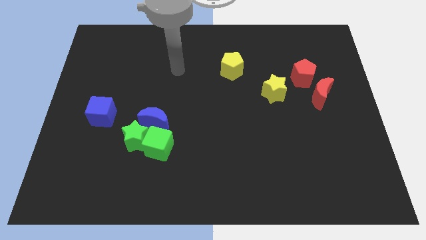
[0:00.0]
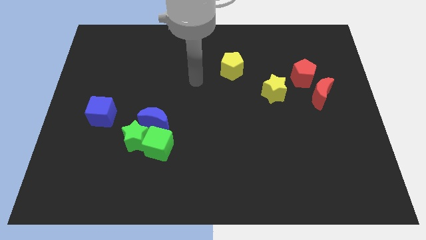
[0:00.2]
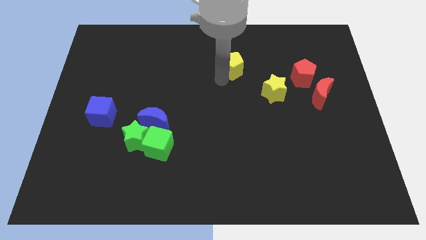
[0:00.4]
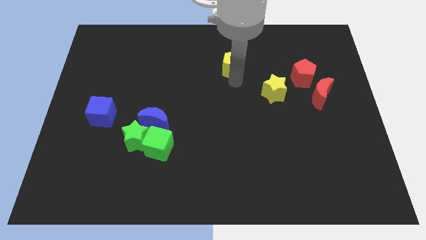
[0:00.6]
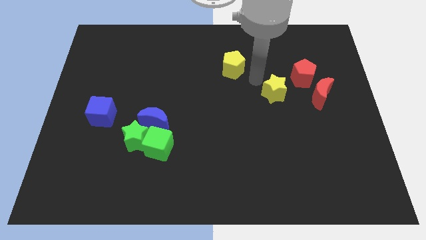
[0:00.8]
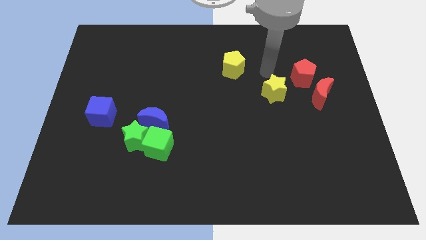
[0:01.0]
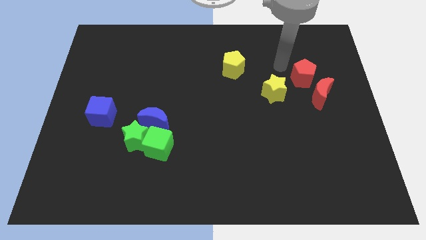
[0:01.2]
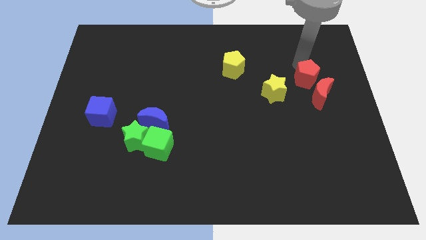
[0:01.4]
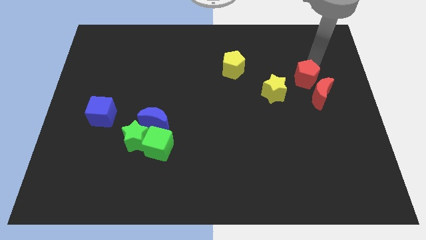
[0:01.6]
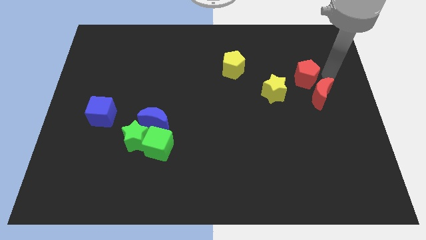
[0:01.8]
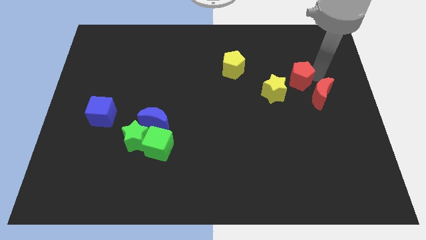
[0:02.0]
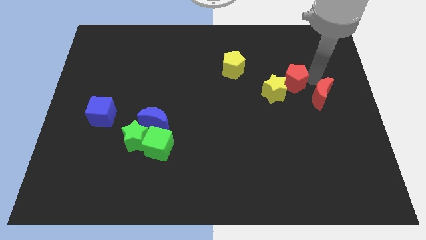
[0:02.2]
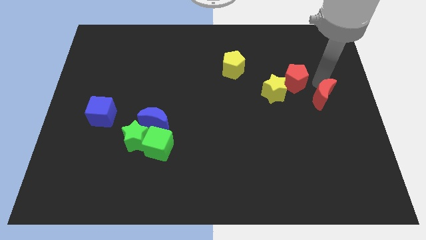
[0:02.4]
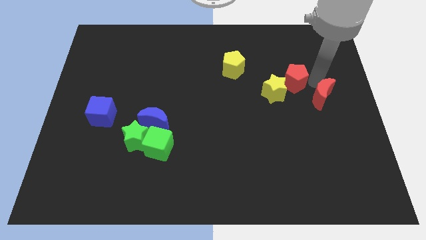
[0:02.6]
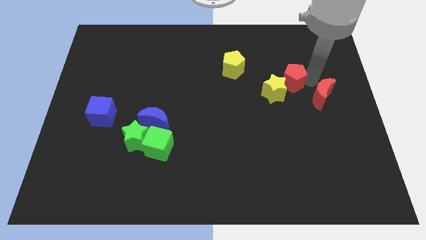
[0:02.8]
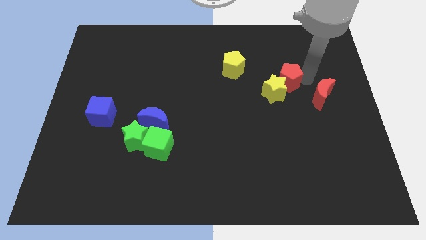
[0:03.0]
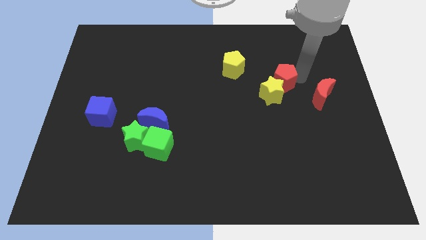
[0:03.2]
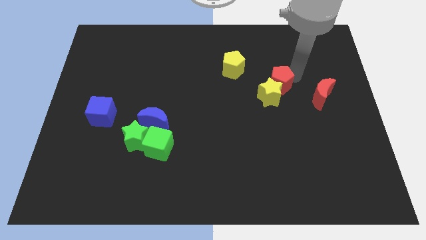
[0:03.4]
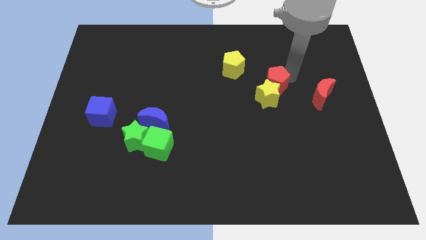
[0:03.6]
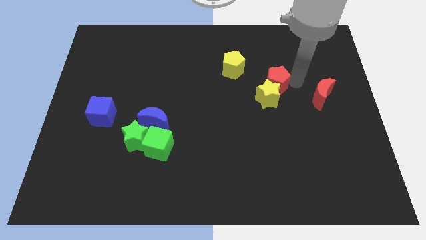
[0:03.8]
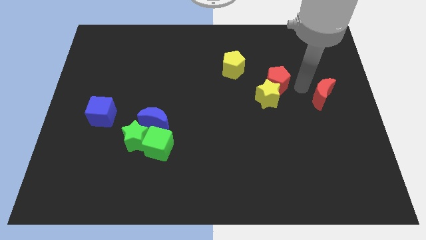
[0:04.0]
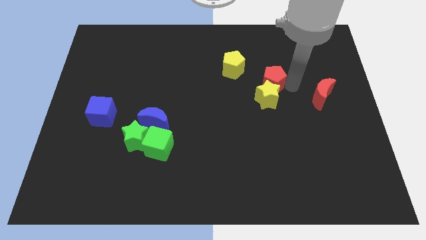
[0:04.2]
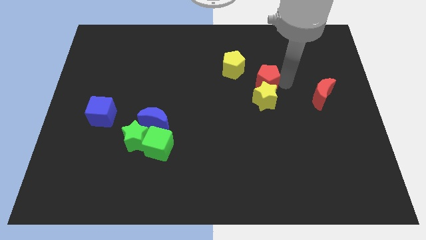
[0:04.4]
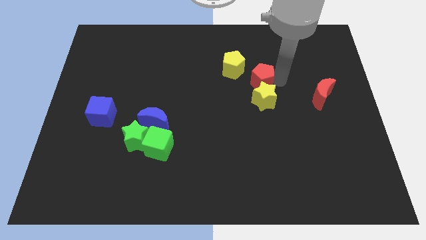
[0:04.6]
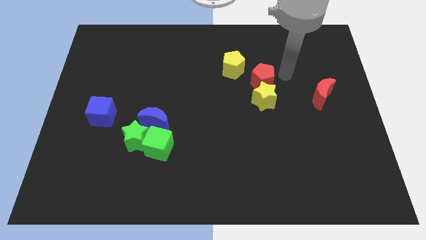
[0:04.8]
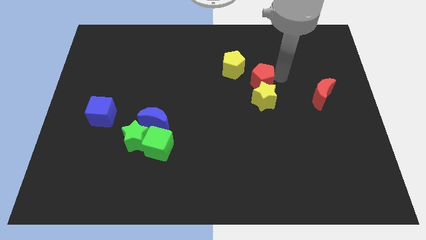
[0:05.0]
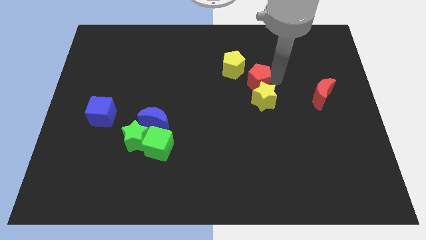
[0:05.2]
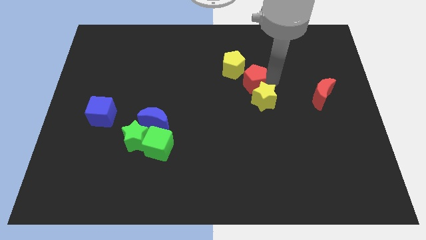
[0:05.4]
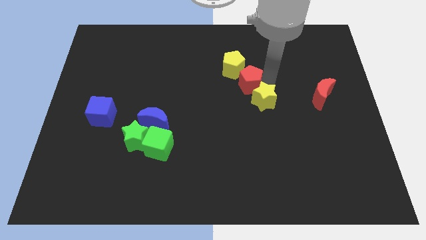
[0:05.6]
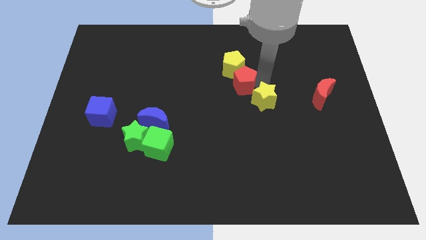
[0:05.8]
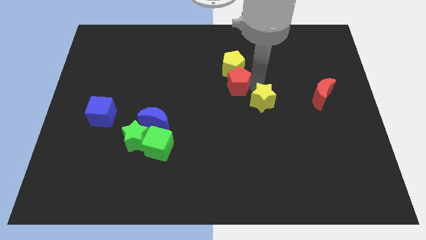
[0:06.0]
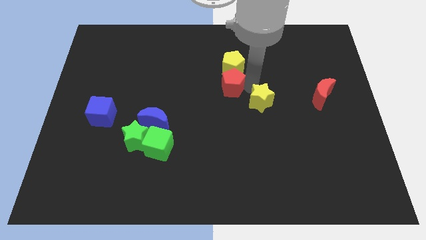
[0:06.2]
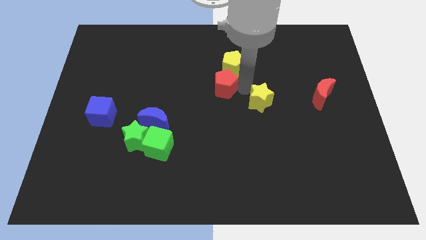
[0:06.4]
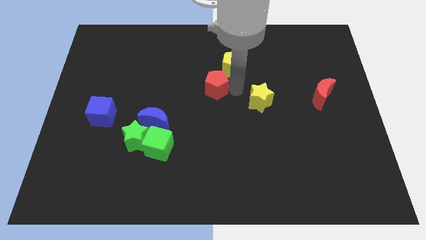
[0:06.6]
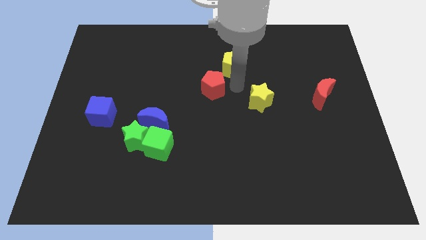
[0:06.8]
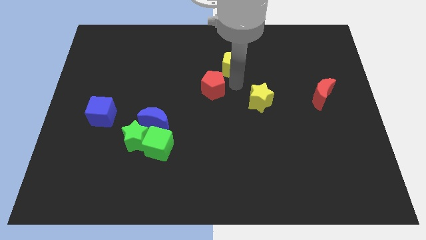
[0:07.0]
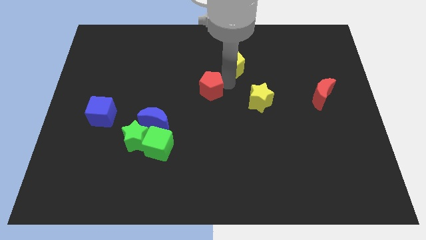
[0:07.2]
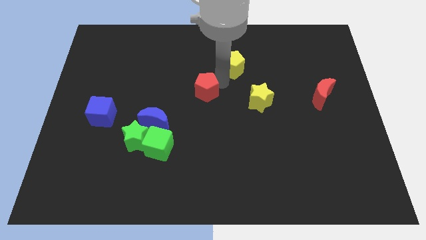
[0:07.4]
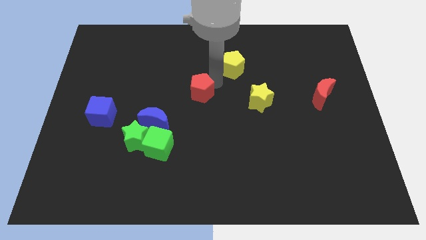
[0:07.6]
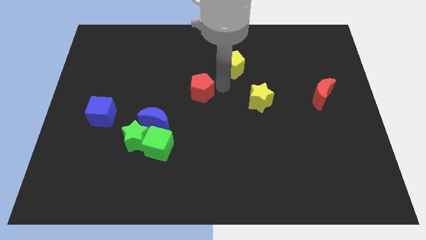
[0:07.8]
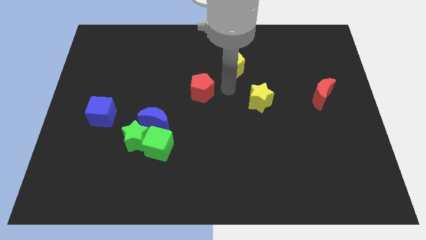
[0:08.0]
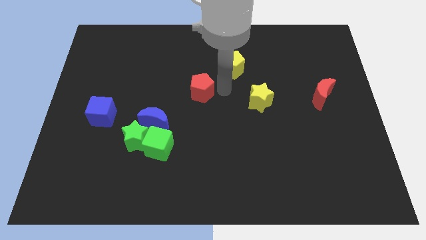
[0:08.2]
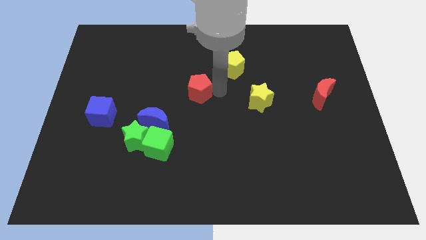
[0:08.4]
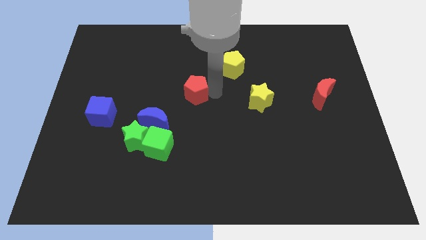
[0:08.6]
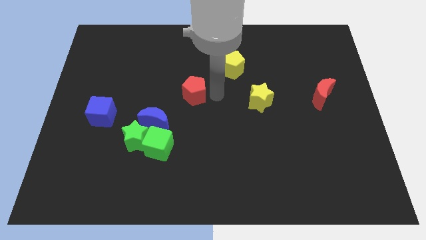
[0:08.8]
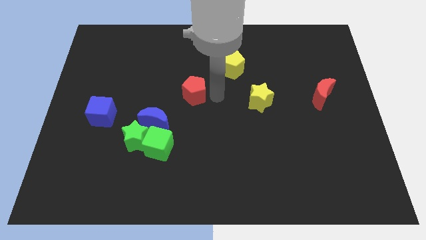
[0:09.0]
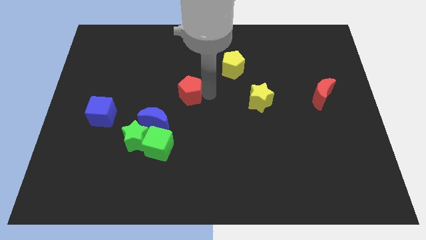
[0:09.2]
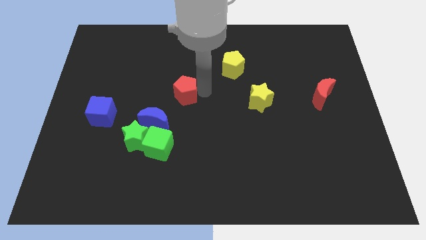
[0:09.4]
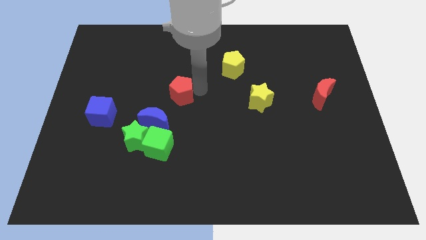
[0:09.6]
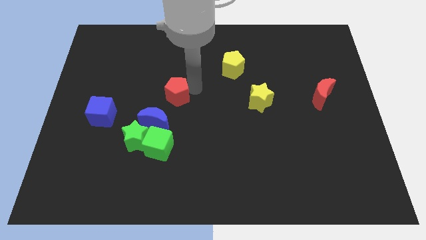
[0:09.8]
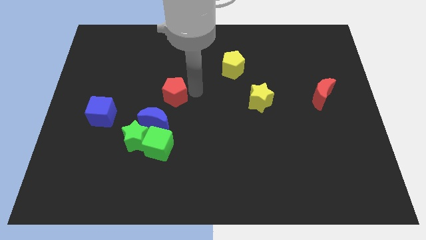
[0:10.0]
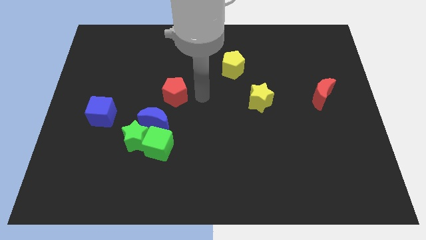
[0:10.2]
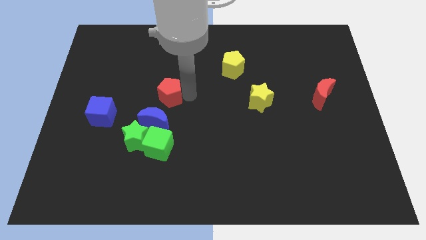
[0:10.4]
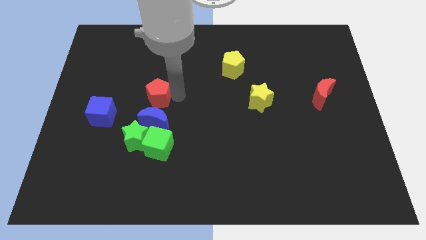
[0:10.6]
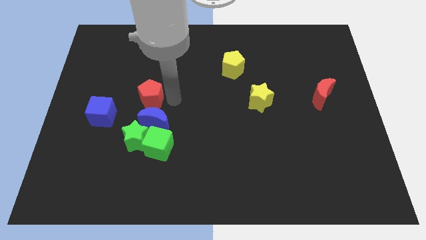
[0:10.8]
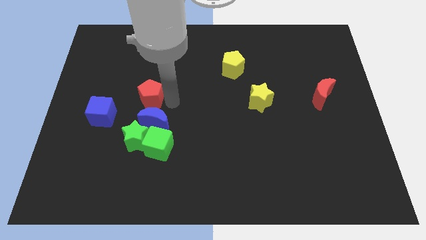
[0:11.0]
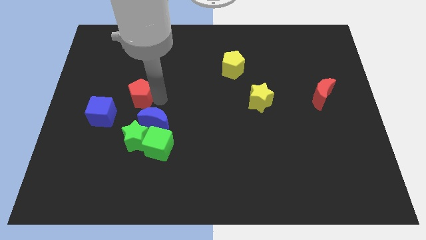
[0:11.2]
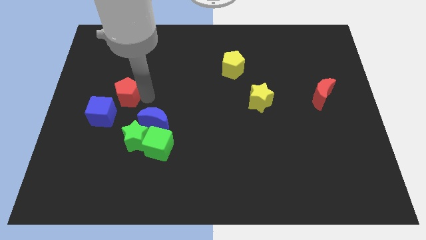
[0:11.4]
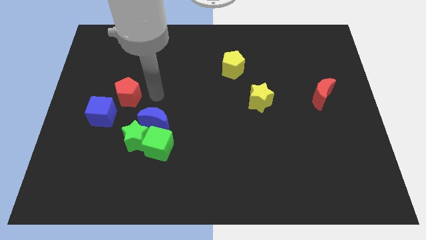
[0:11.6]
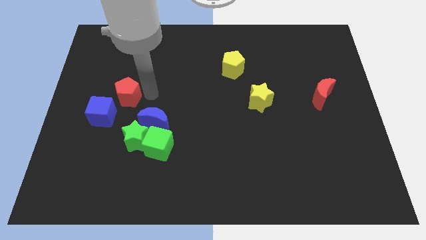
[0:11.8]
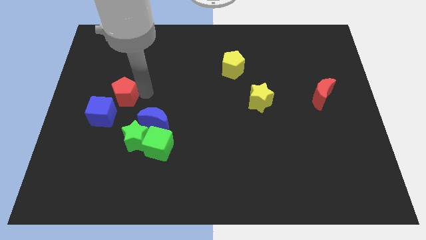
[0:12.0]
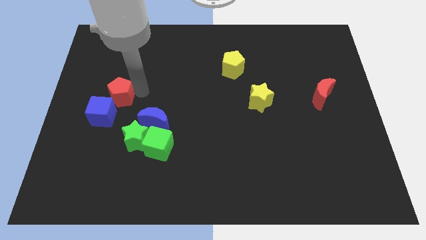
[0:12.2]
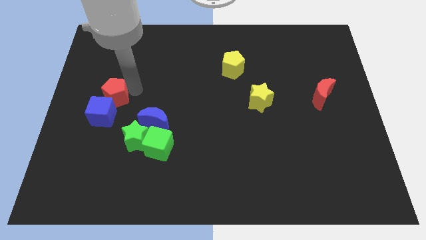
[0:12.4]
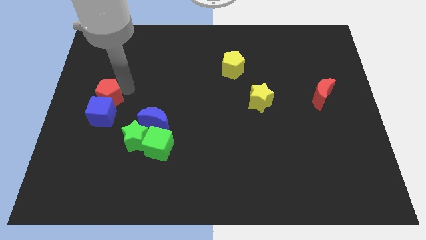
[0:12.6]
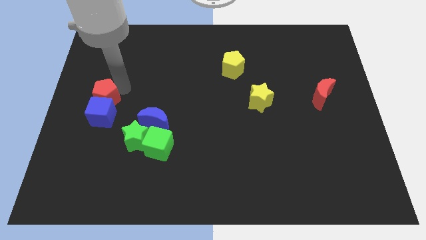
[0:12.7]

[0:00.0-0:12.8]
put the red pentagon to the center left

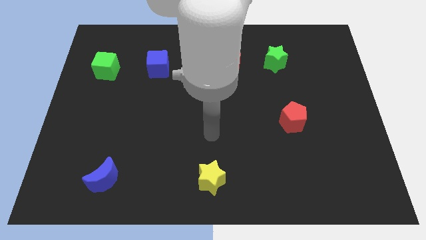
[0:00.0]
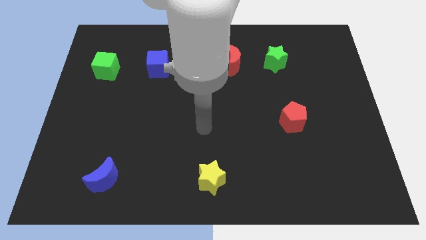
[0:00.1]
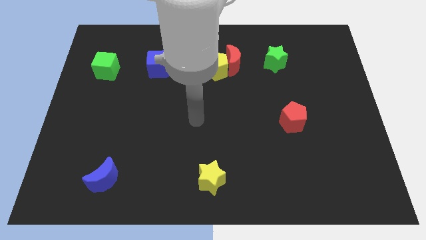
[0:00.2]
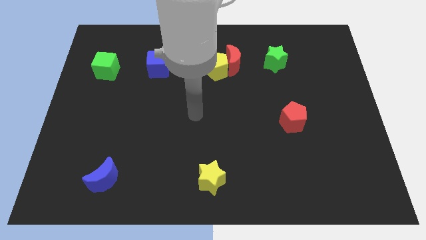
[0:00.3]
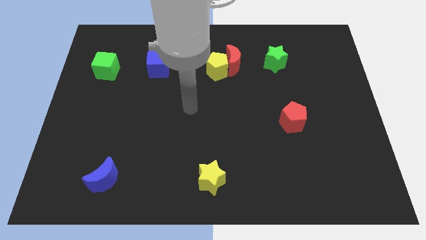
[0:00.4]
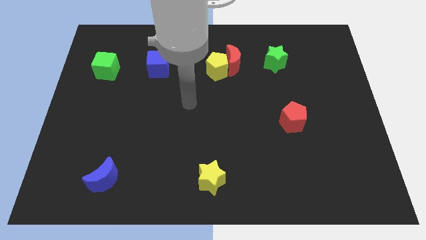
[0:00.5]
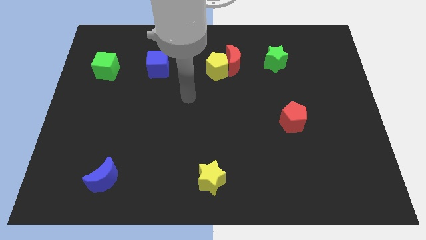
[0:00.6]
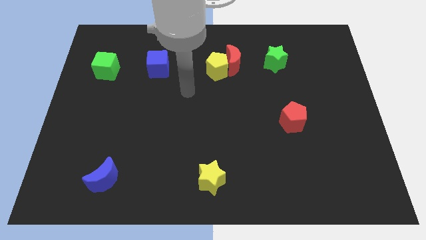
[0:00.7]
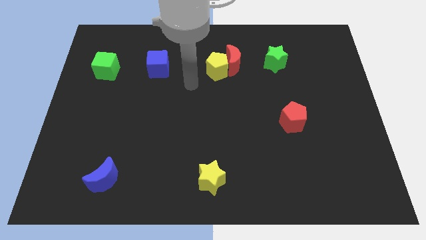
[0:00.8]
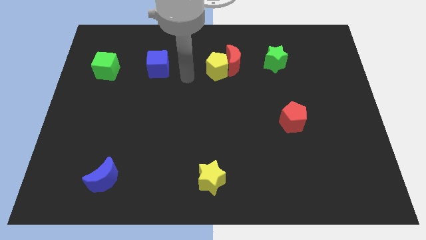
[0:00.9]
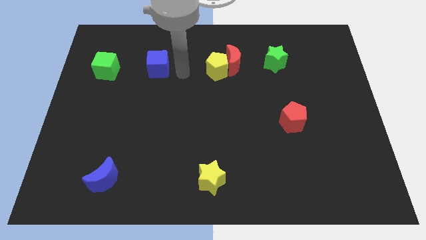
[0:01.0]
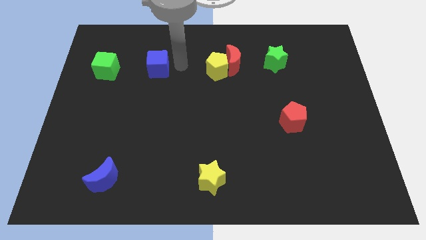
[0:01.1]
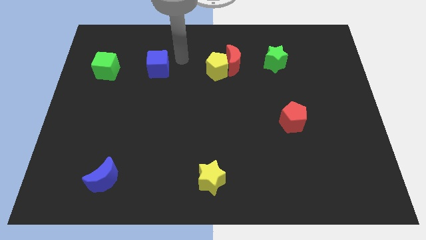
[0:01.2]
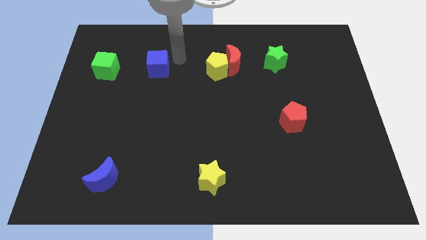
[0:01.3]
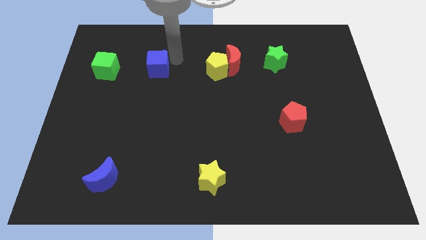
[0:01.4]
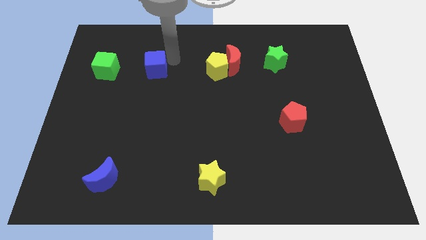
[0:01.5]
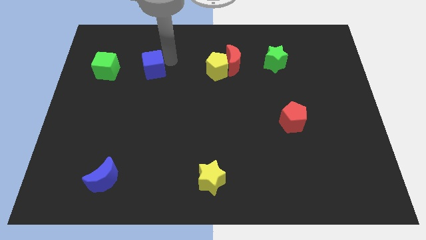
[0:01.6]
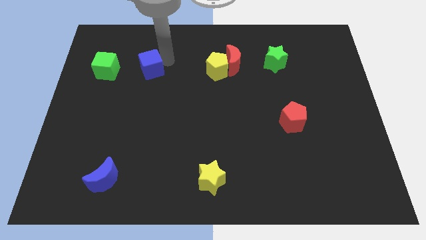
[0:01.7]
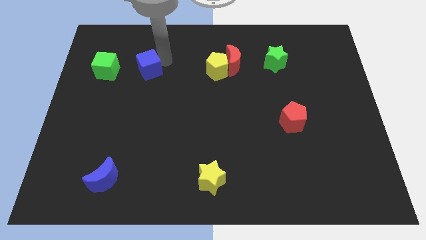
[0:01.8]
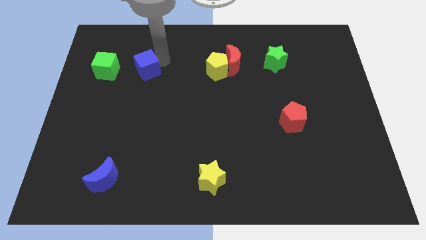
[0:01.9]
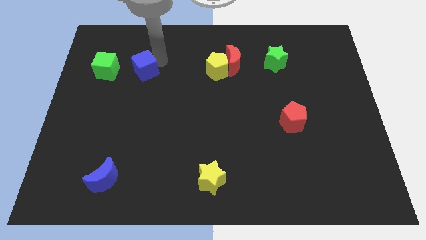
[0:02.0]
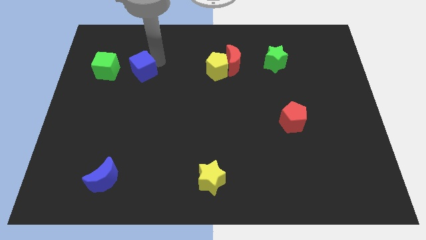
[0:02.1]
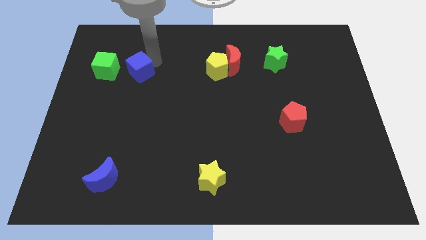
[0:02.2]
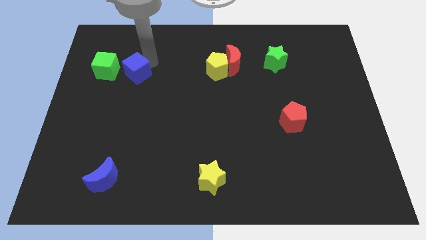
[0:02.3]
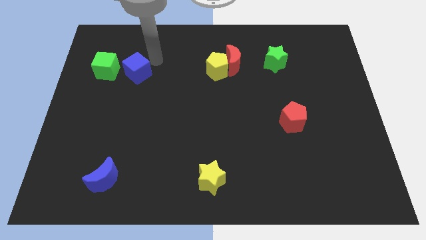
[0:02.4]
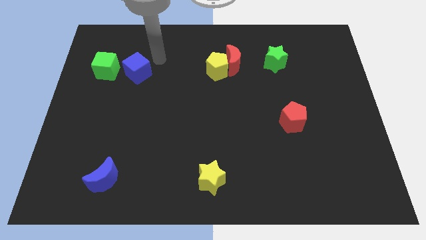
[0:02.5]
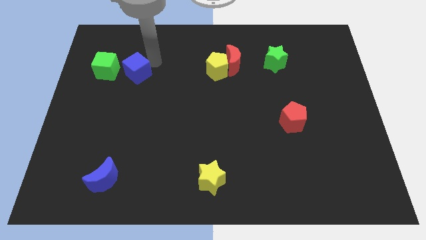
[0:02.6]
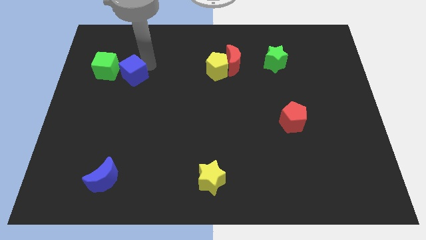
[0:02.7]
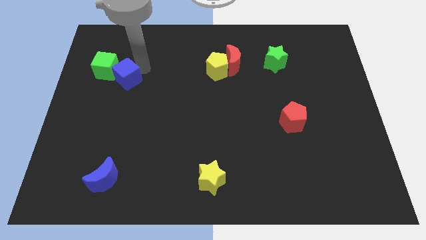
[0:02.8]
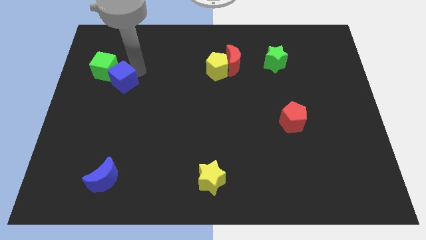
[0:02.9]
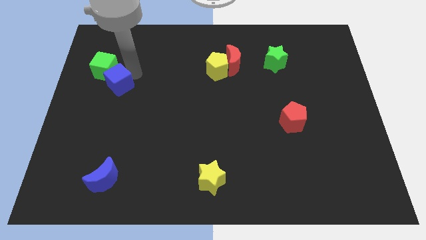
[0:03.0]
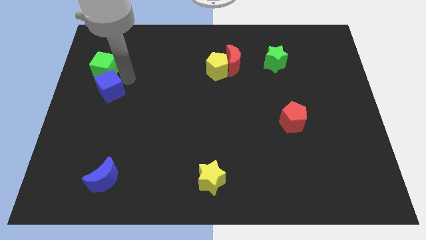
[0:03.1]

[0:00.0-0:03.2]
move the blue cube to the left side
